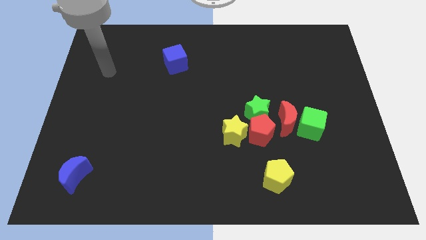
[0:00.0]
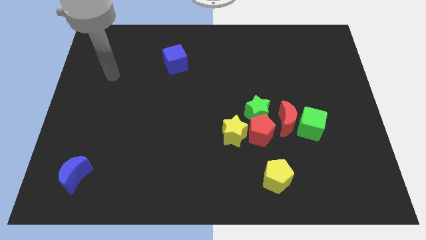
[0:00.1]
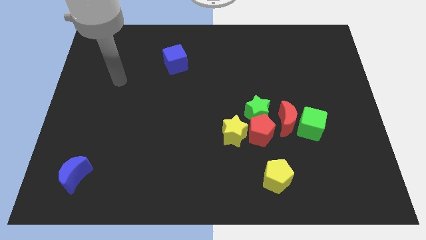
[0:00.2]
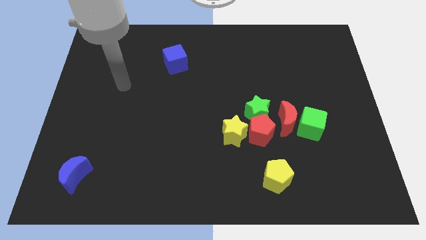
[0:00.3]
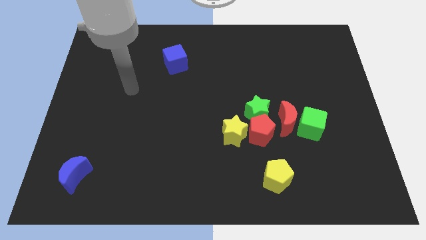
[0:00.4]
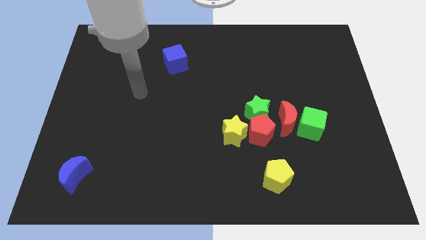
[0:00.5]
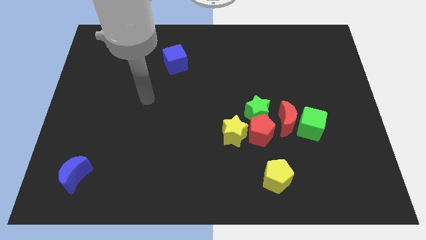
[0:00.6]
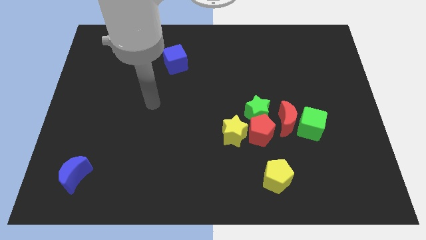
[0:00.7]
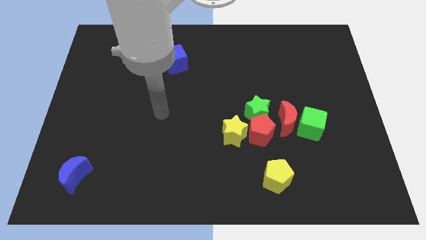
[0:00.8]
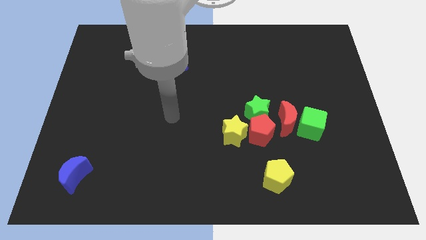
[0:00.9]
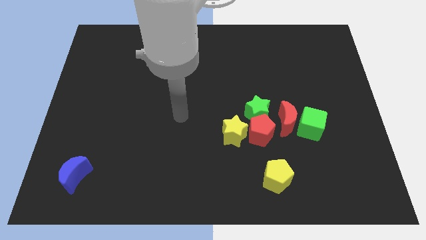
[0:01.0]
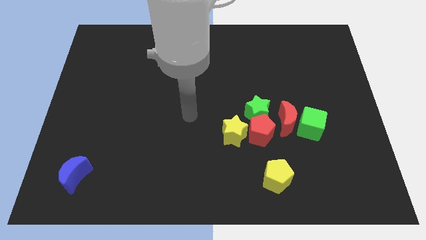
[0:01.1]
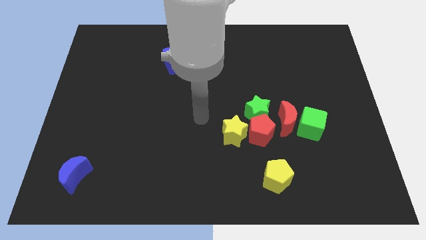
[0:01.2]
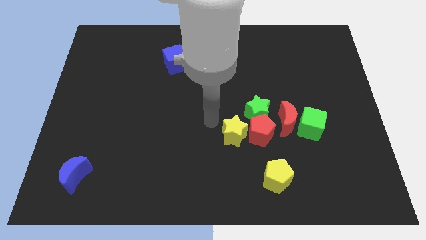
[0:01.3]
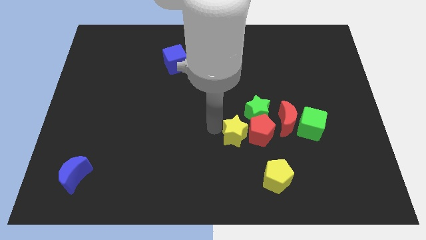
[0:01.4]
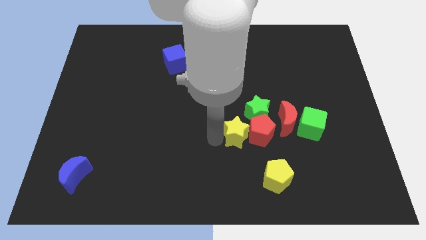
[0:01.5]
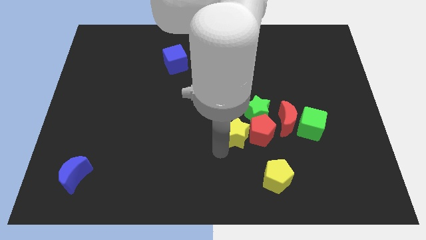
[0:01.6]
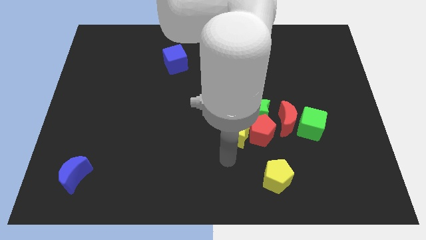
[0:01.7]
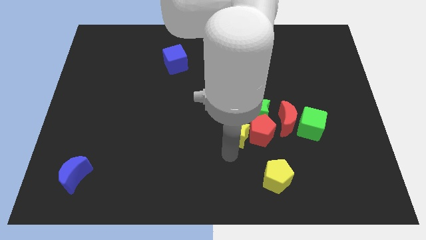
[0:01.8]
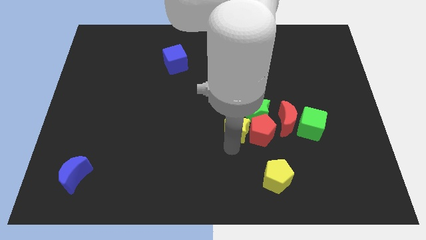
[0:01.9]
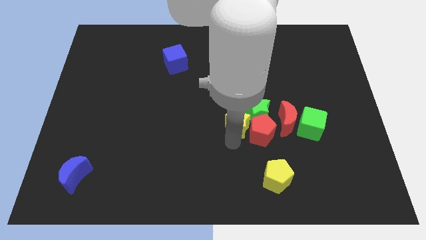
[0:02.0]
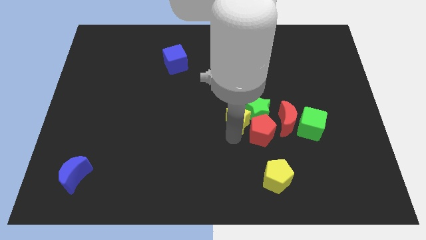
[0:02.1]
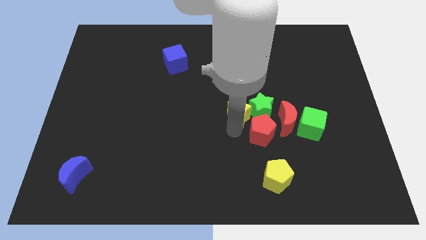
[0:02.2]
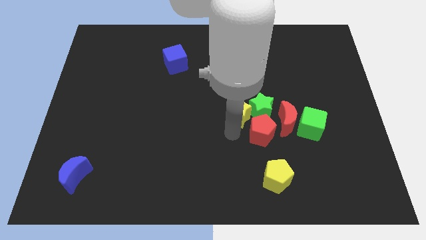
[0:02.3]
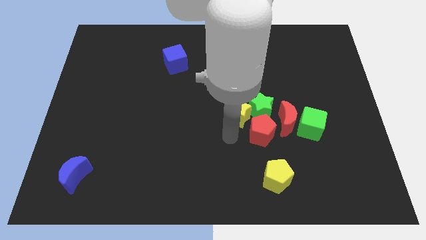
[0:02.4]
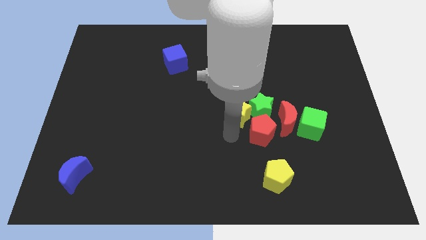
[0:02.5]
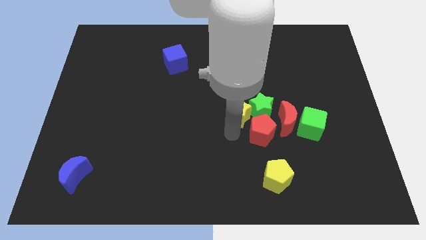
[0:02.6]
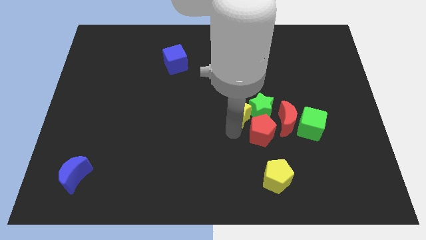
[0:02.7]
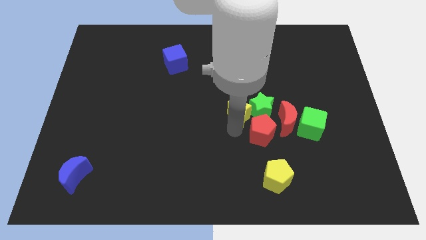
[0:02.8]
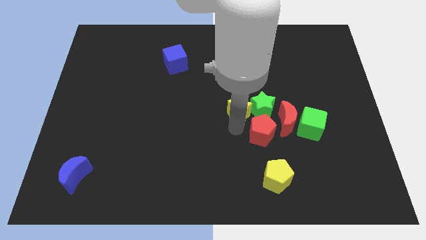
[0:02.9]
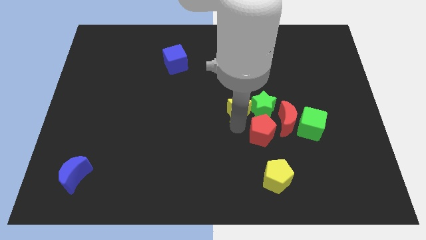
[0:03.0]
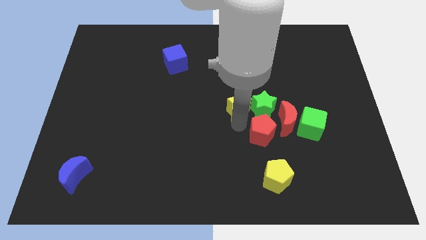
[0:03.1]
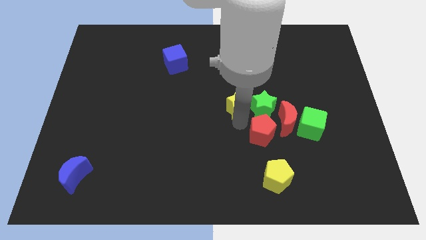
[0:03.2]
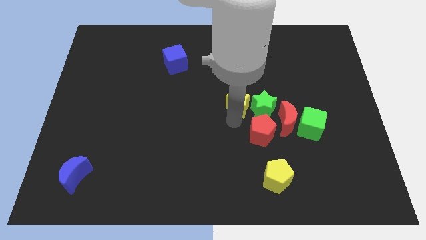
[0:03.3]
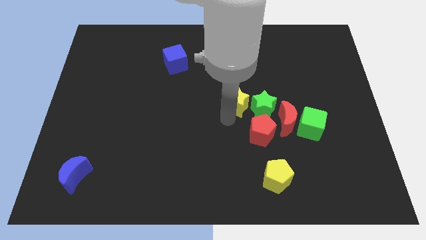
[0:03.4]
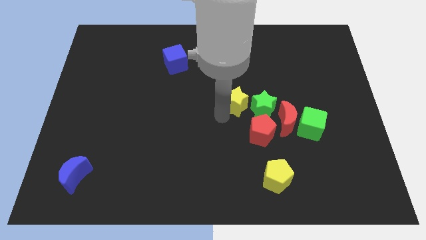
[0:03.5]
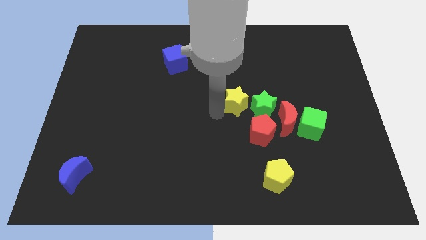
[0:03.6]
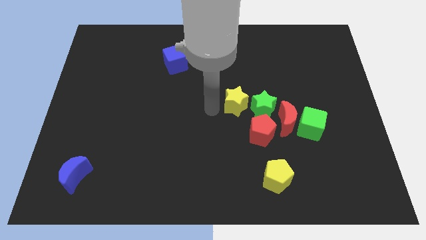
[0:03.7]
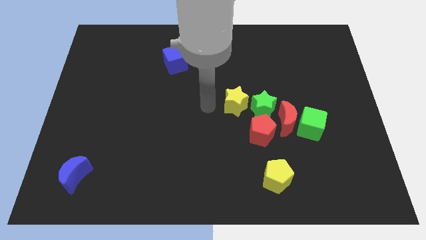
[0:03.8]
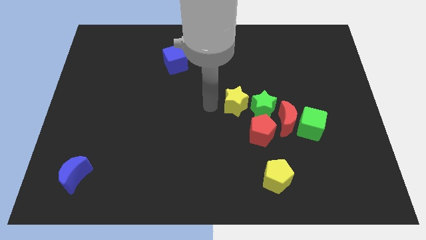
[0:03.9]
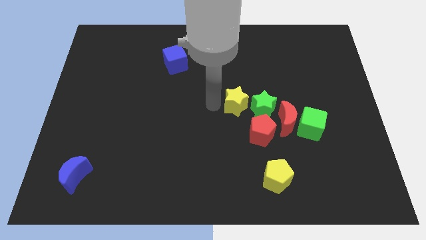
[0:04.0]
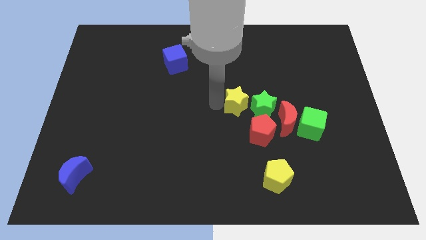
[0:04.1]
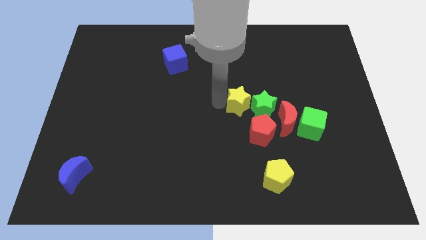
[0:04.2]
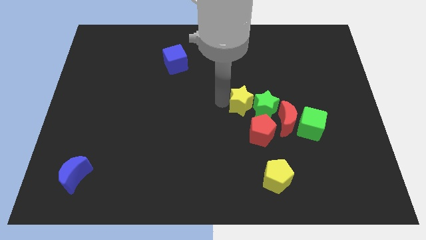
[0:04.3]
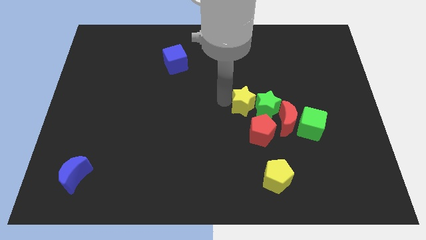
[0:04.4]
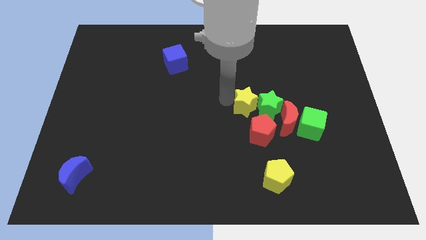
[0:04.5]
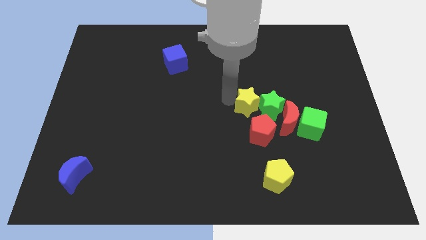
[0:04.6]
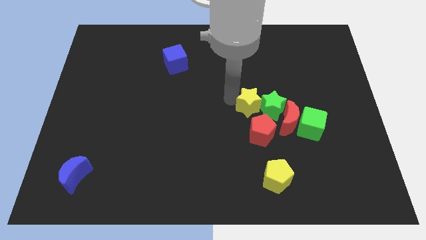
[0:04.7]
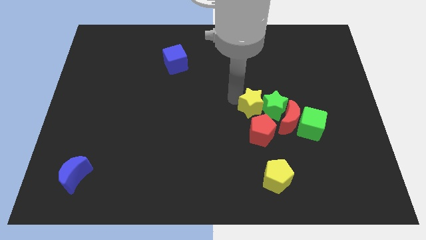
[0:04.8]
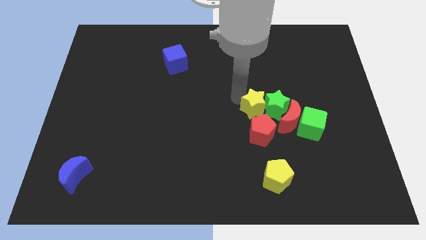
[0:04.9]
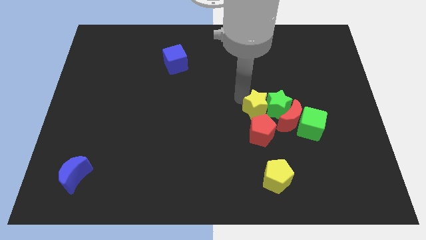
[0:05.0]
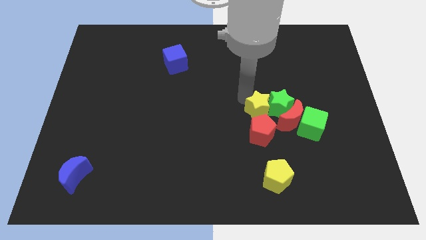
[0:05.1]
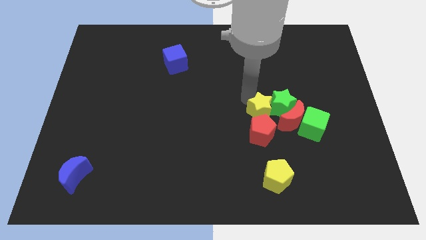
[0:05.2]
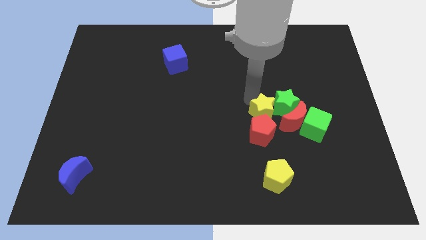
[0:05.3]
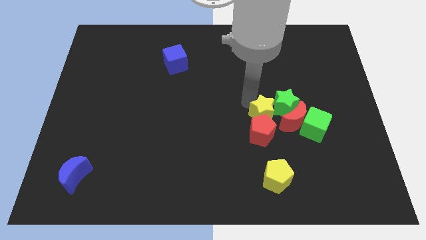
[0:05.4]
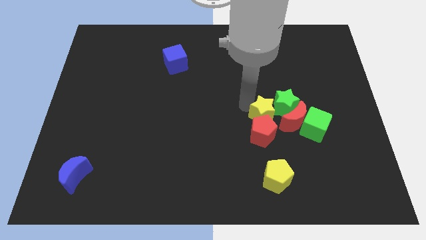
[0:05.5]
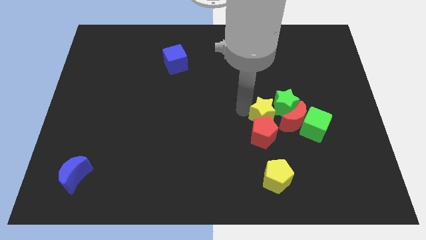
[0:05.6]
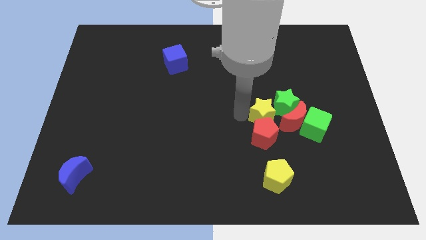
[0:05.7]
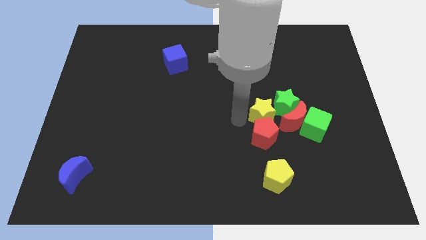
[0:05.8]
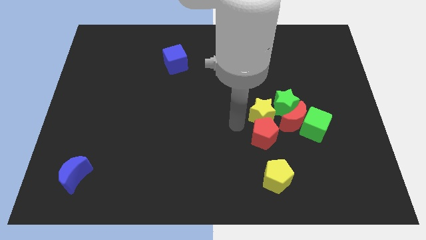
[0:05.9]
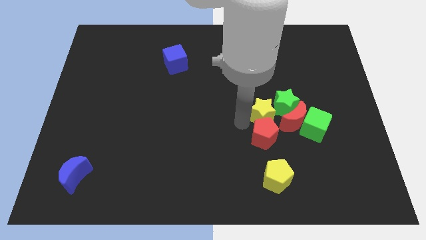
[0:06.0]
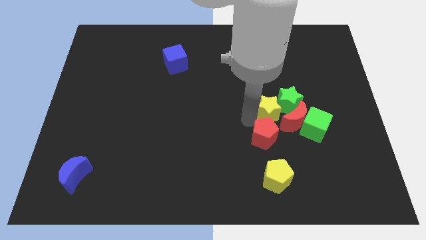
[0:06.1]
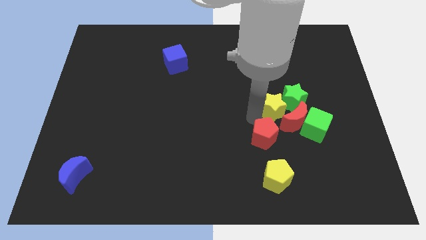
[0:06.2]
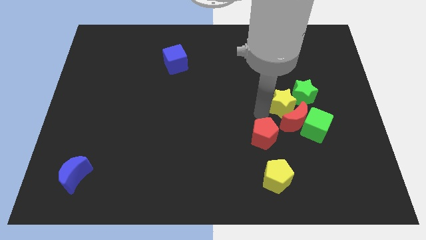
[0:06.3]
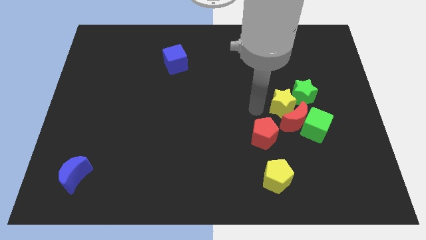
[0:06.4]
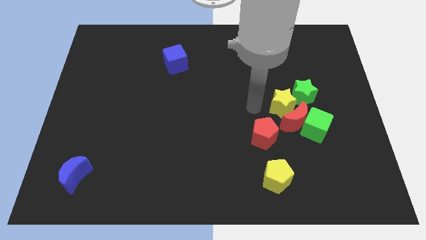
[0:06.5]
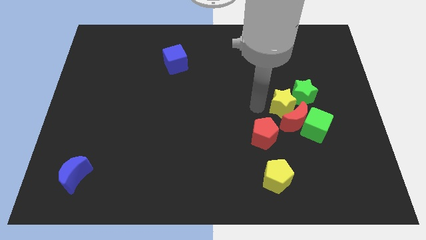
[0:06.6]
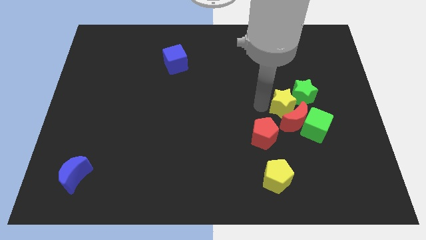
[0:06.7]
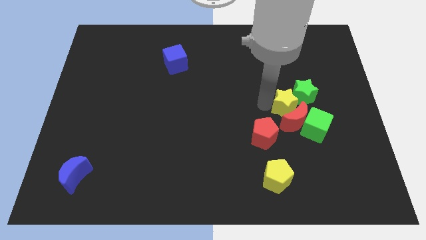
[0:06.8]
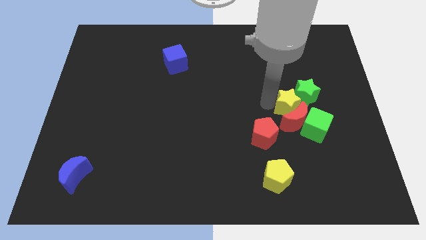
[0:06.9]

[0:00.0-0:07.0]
push the yellow star diagonally up and to the right of the red moon
